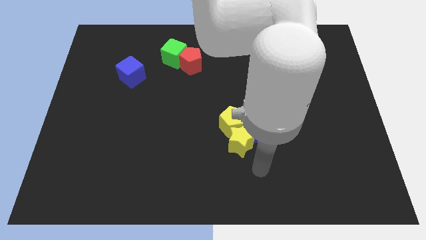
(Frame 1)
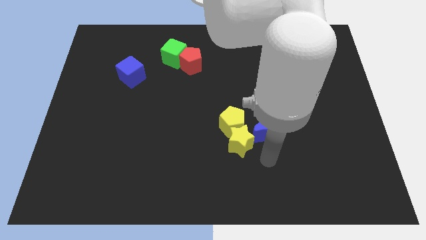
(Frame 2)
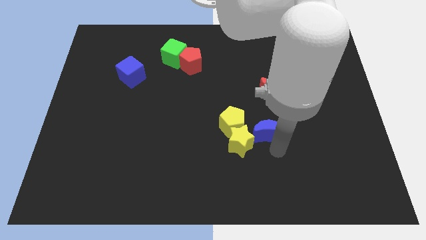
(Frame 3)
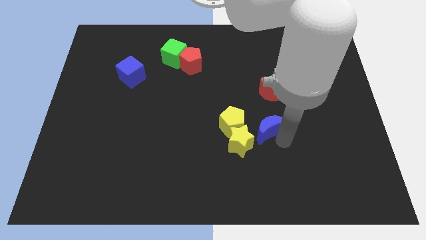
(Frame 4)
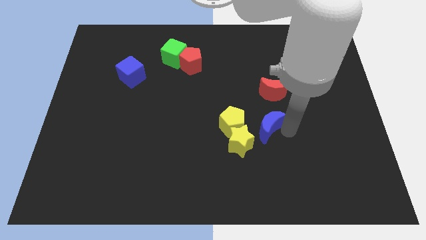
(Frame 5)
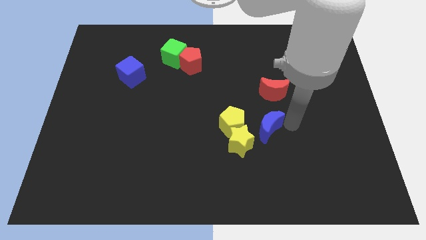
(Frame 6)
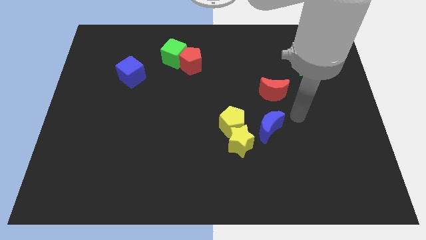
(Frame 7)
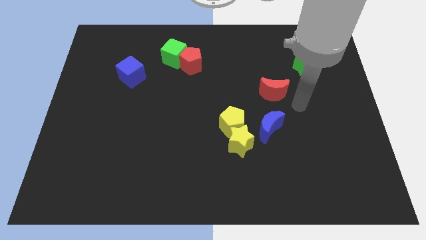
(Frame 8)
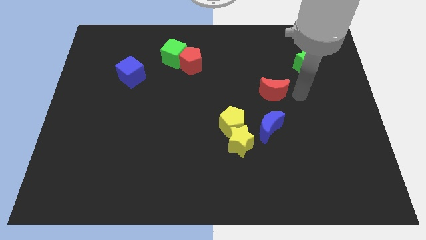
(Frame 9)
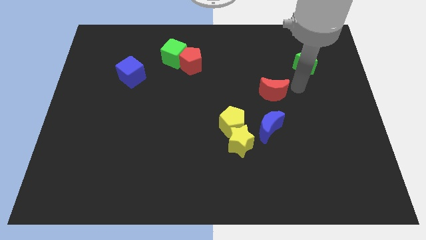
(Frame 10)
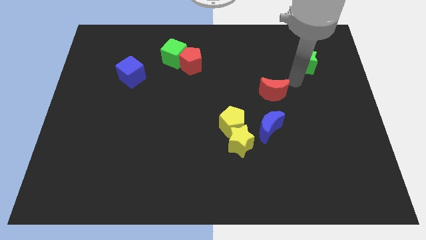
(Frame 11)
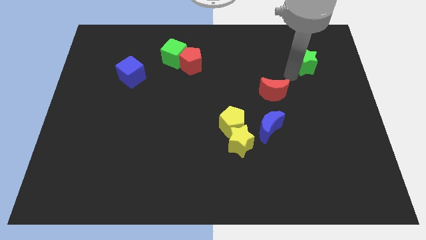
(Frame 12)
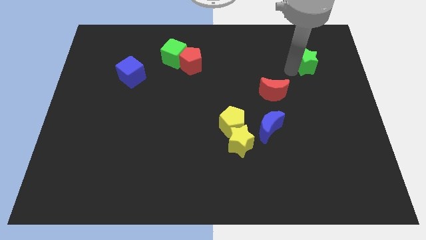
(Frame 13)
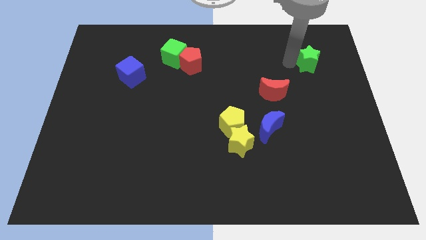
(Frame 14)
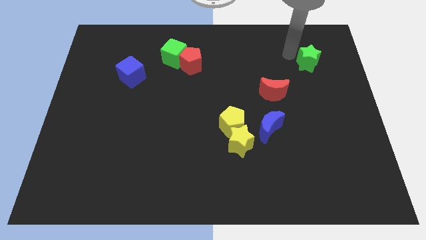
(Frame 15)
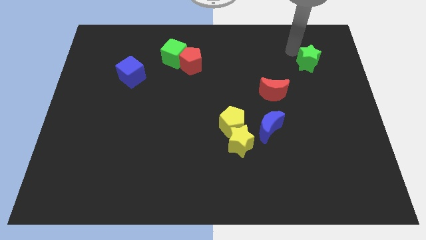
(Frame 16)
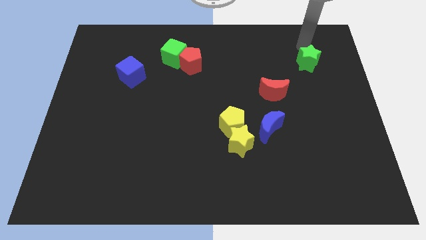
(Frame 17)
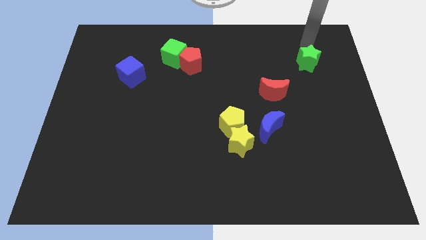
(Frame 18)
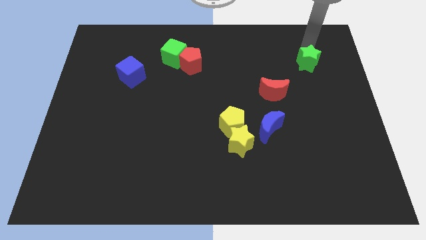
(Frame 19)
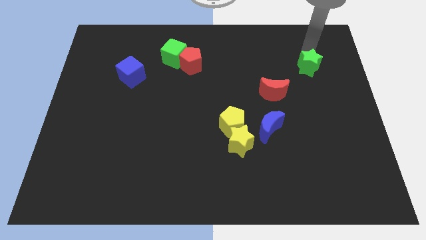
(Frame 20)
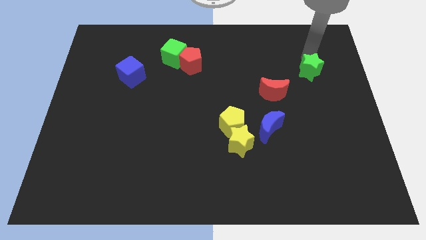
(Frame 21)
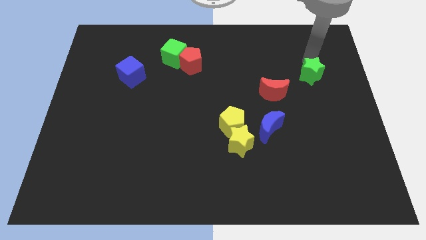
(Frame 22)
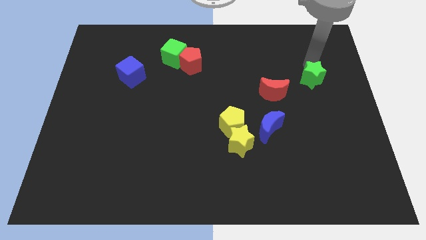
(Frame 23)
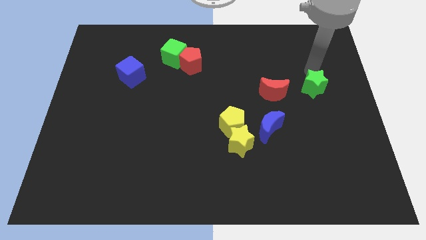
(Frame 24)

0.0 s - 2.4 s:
slightly push the green star downwards

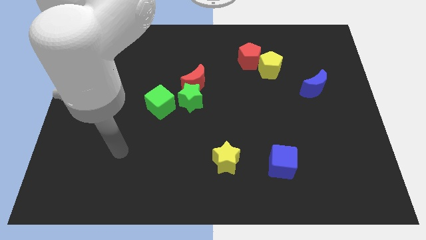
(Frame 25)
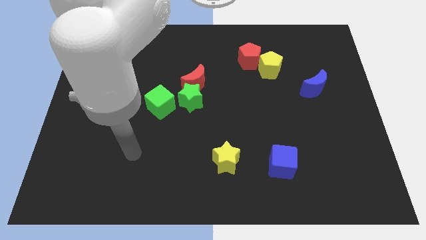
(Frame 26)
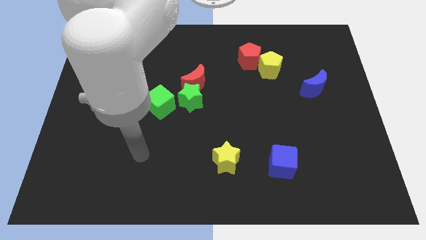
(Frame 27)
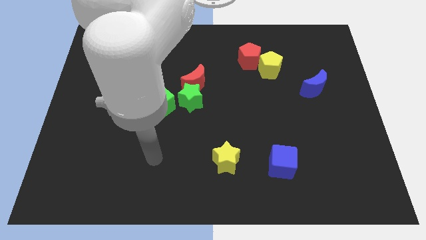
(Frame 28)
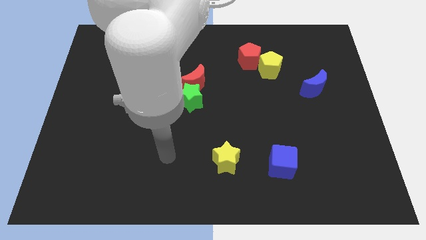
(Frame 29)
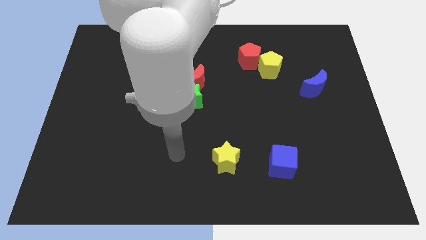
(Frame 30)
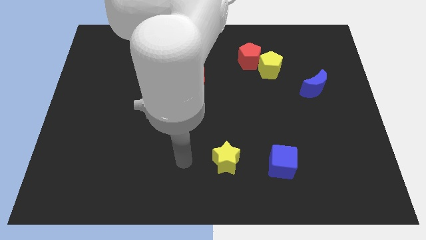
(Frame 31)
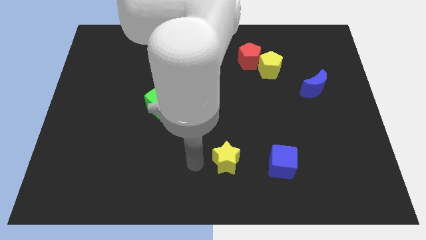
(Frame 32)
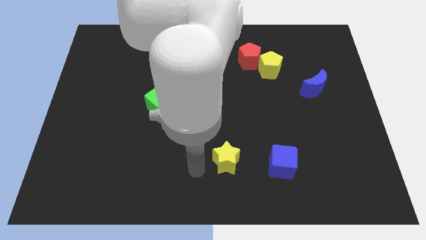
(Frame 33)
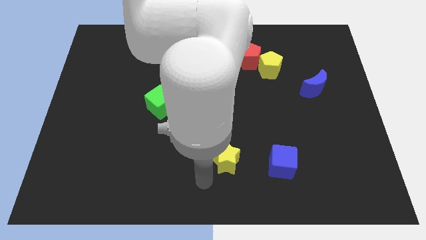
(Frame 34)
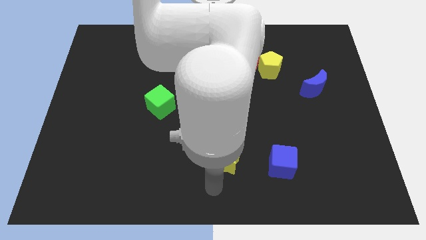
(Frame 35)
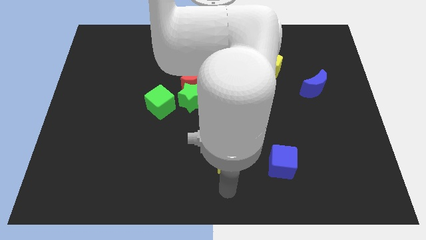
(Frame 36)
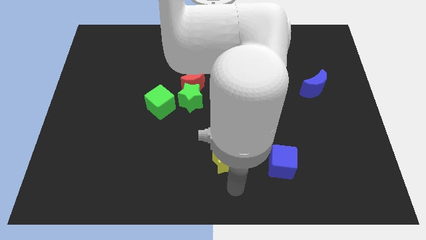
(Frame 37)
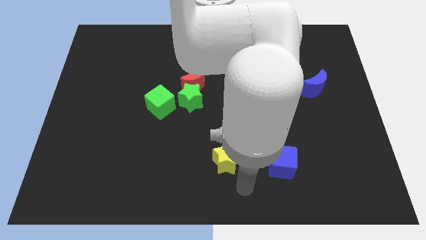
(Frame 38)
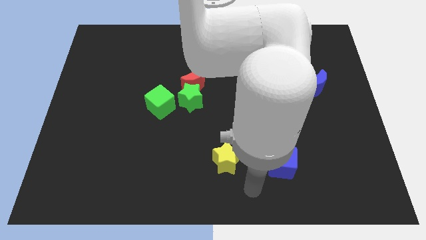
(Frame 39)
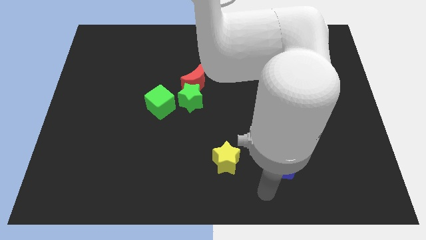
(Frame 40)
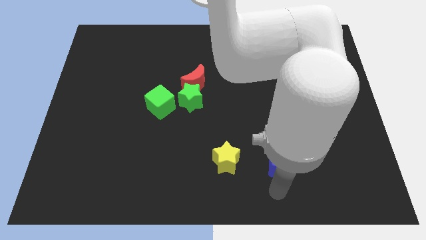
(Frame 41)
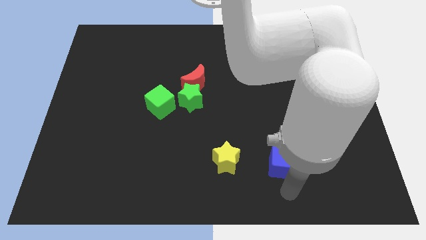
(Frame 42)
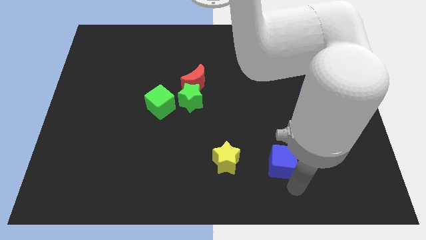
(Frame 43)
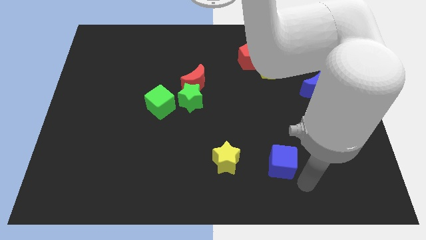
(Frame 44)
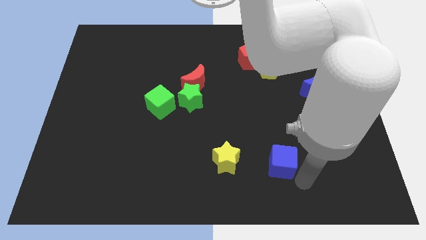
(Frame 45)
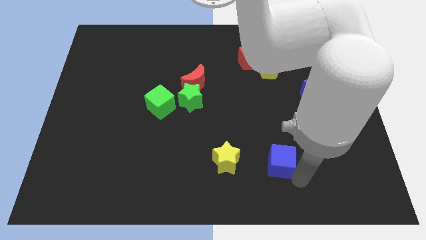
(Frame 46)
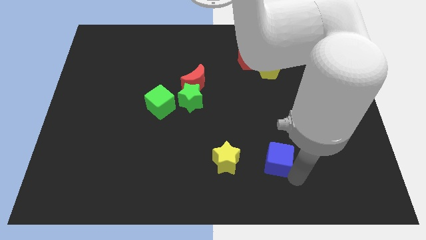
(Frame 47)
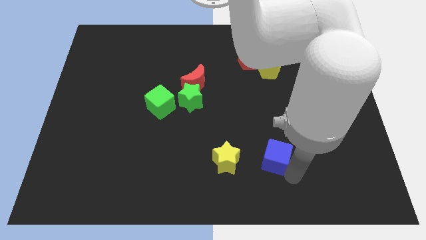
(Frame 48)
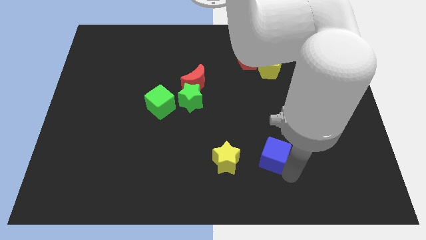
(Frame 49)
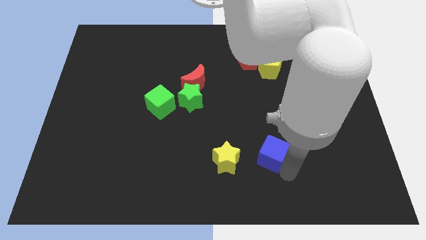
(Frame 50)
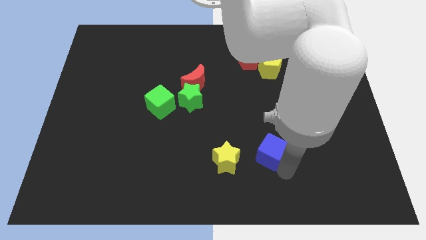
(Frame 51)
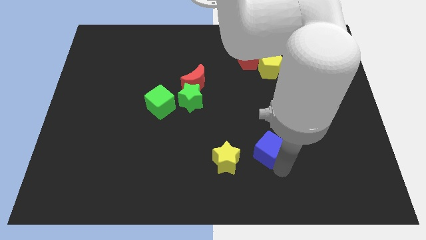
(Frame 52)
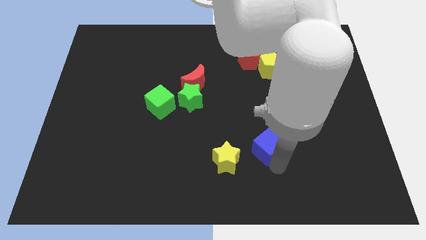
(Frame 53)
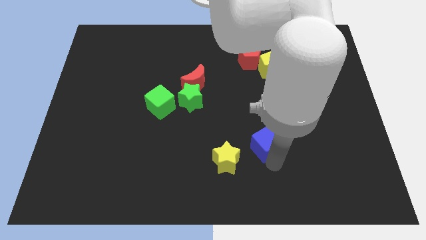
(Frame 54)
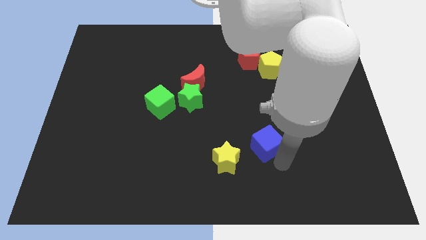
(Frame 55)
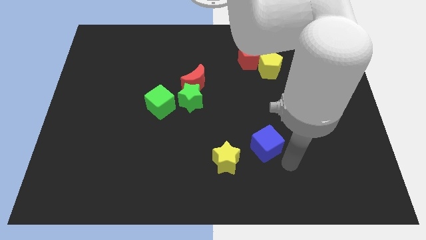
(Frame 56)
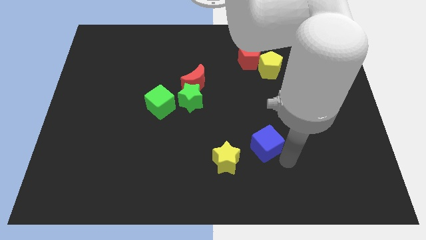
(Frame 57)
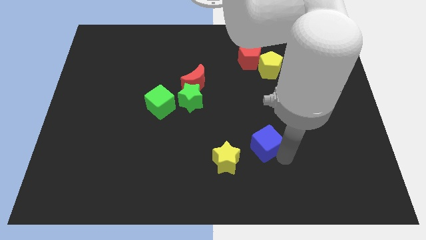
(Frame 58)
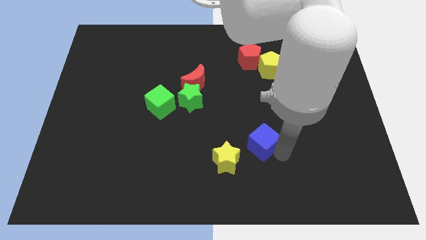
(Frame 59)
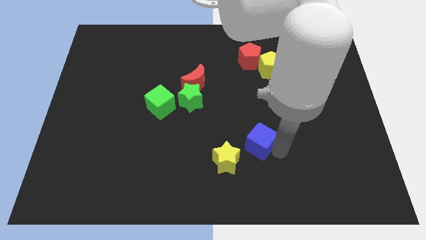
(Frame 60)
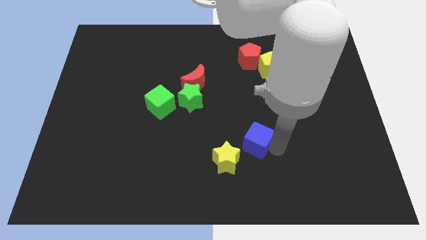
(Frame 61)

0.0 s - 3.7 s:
slightly move the blue cube upwards and then to the left

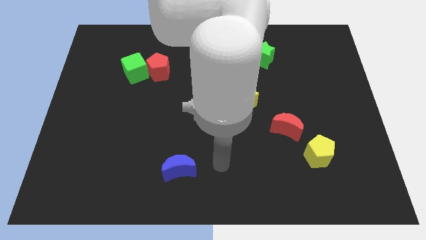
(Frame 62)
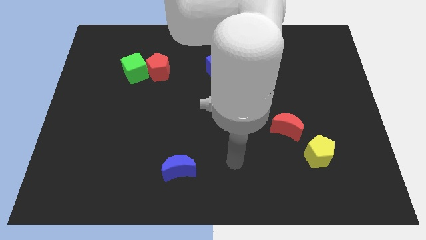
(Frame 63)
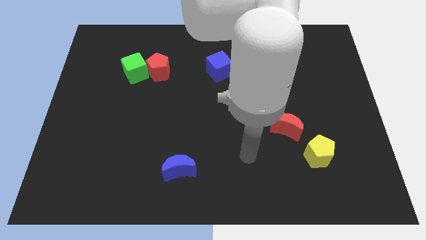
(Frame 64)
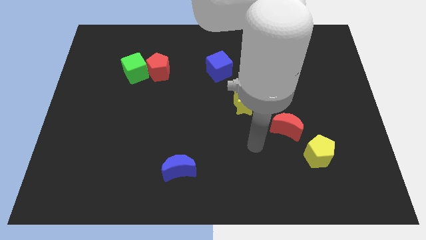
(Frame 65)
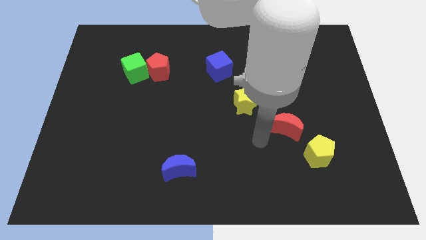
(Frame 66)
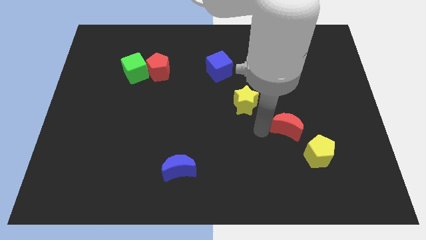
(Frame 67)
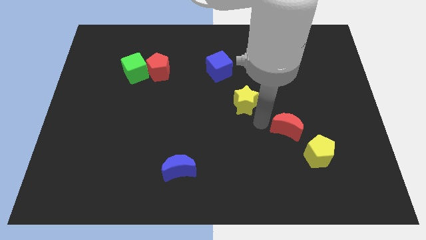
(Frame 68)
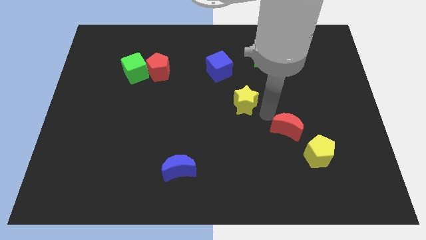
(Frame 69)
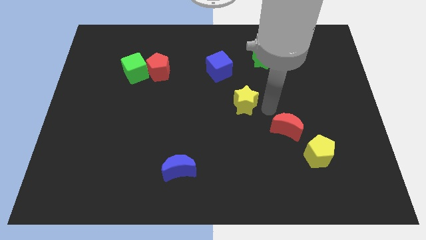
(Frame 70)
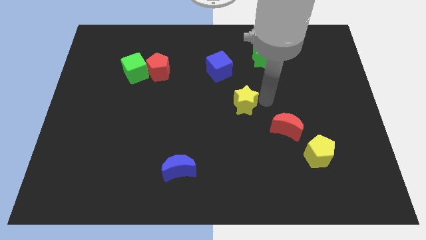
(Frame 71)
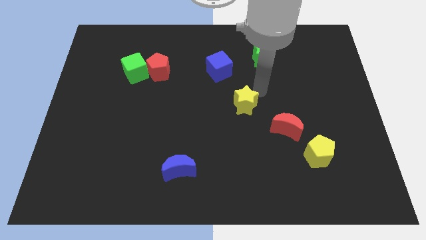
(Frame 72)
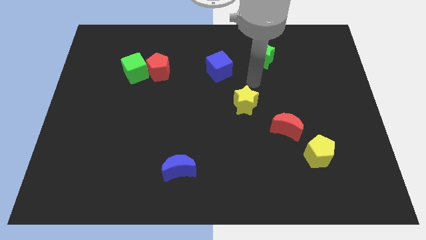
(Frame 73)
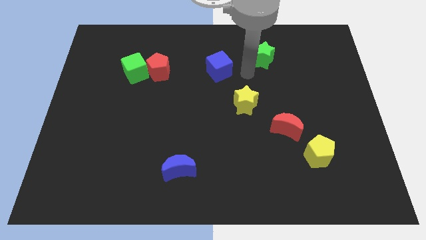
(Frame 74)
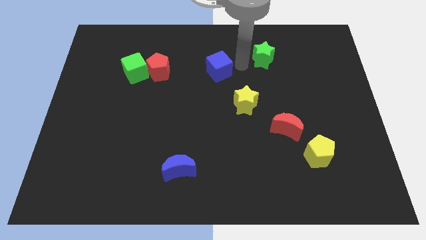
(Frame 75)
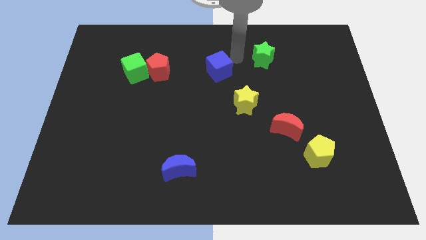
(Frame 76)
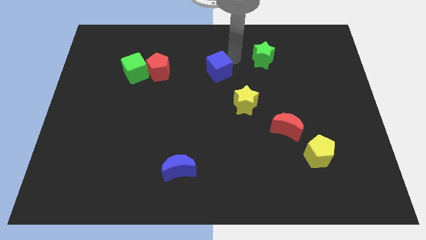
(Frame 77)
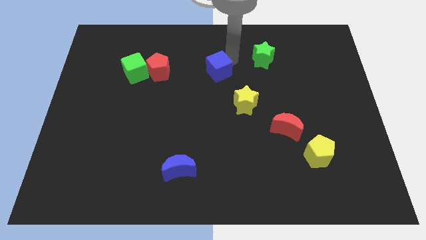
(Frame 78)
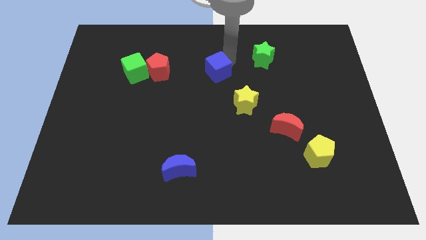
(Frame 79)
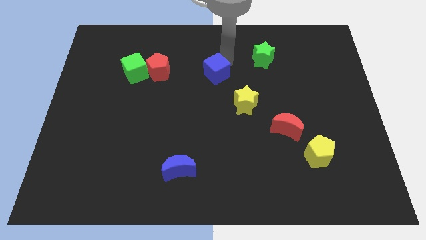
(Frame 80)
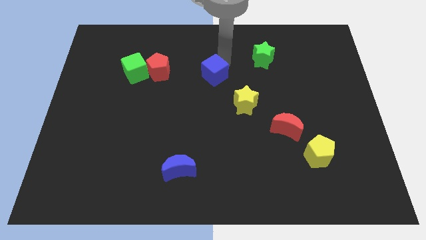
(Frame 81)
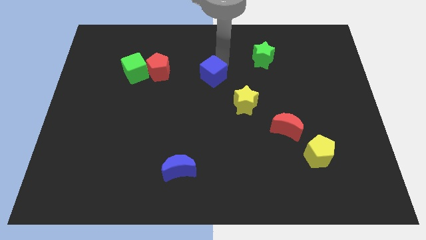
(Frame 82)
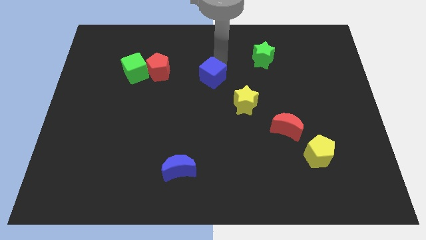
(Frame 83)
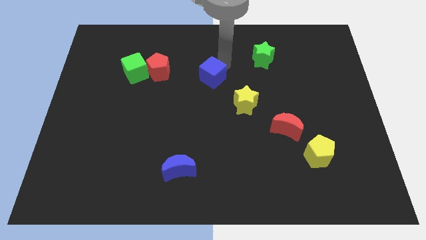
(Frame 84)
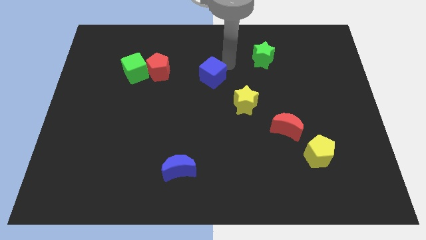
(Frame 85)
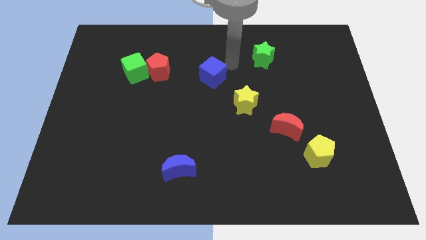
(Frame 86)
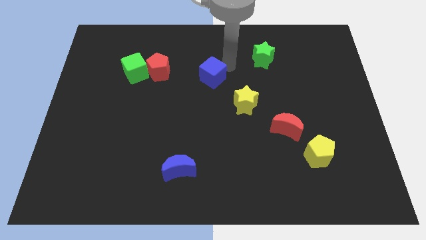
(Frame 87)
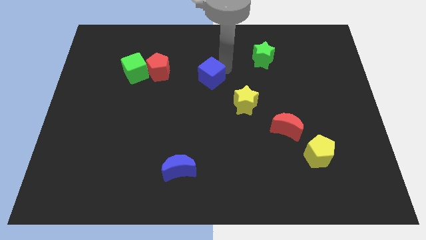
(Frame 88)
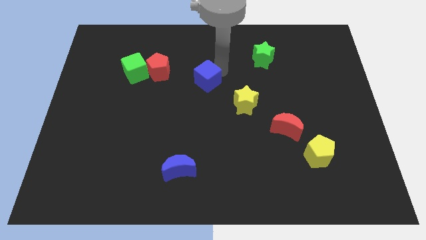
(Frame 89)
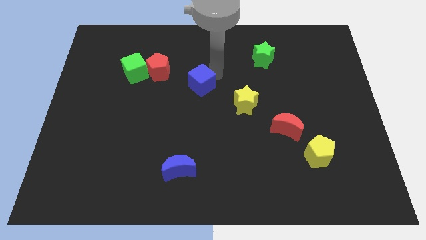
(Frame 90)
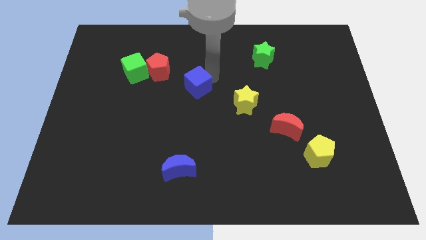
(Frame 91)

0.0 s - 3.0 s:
push the blue cube diagonally downwards and to the left a bit
